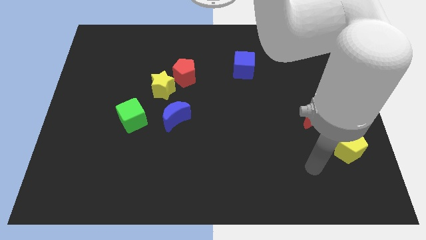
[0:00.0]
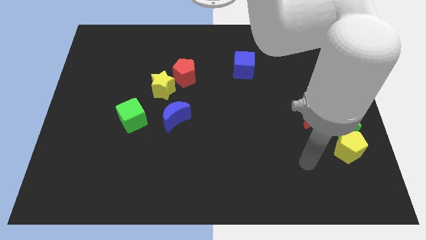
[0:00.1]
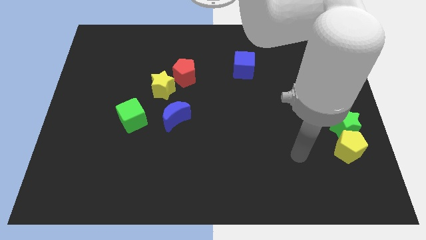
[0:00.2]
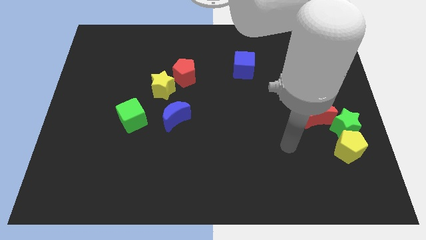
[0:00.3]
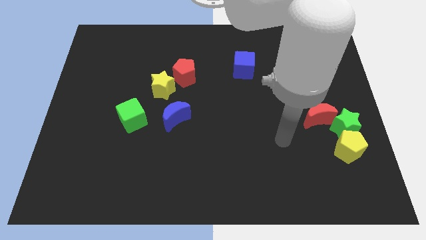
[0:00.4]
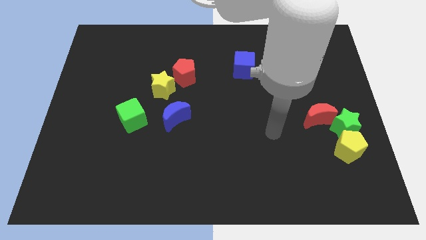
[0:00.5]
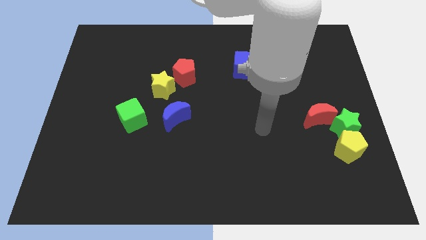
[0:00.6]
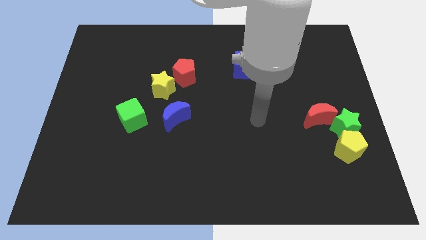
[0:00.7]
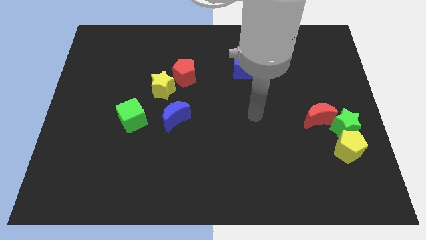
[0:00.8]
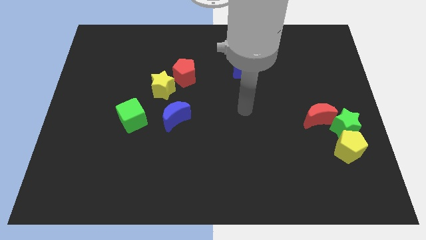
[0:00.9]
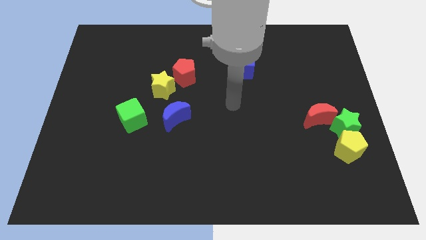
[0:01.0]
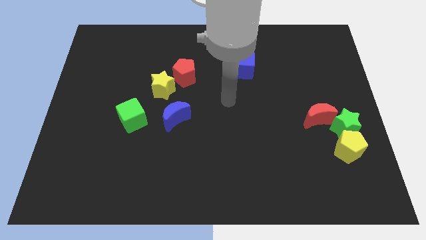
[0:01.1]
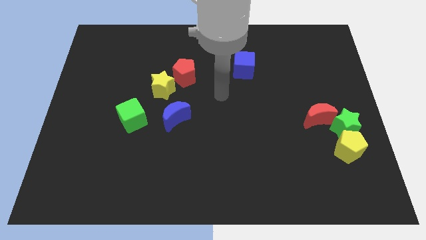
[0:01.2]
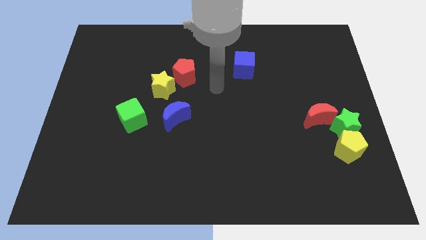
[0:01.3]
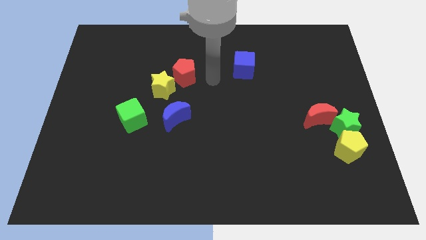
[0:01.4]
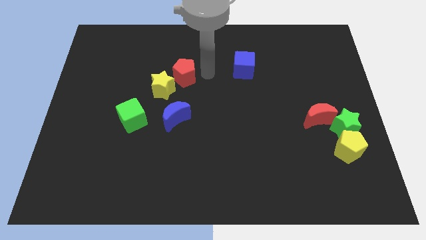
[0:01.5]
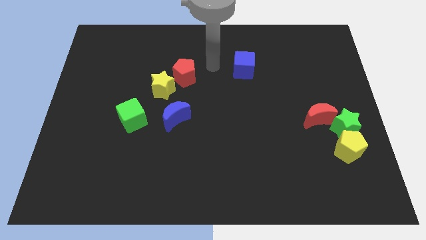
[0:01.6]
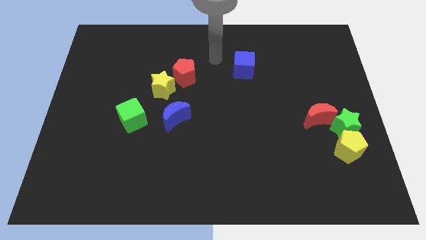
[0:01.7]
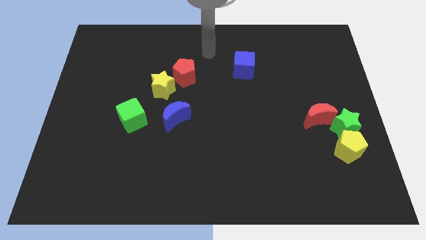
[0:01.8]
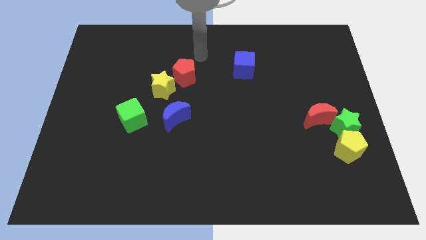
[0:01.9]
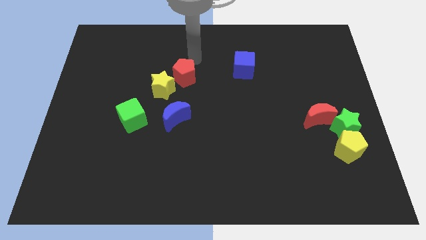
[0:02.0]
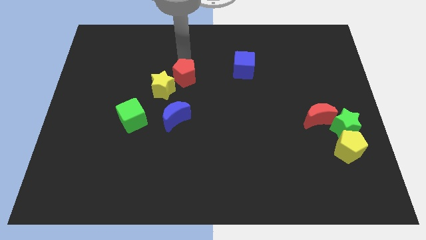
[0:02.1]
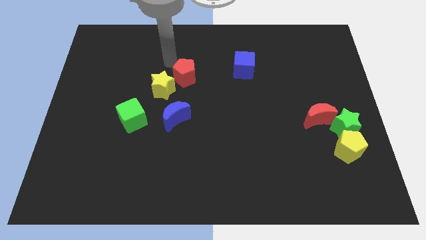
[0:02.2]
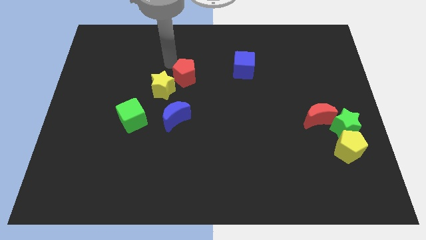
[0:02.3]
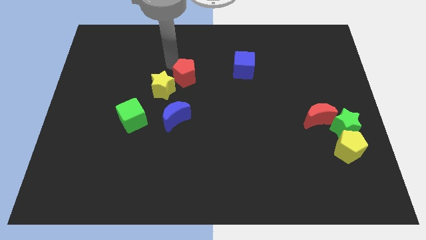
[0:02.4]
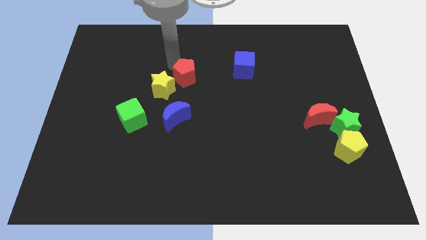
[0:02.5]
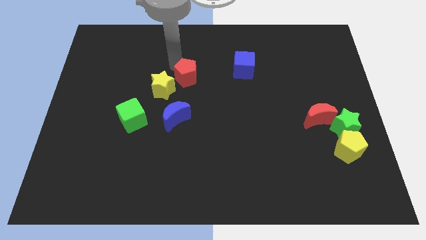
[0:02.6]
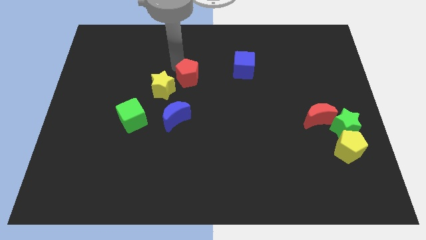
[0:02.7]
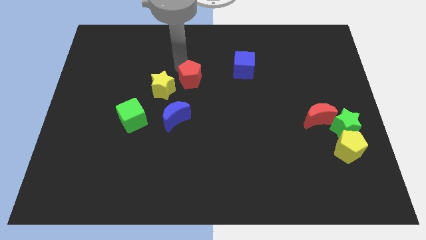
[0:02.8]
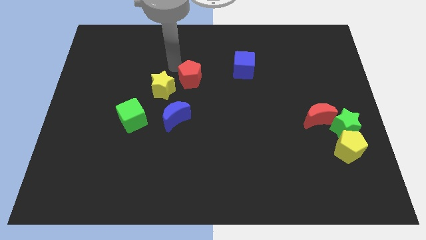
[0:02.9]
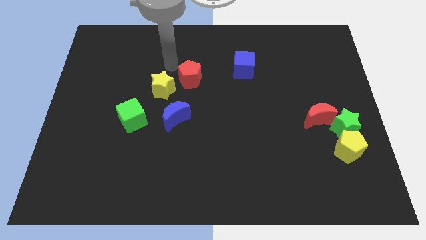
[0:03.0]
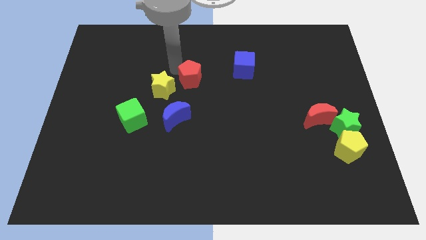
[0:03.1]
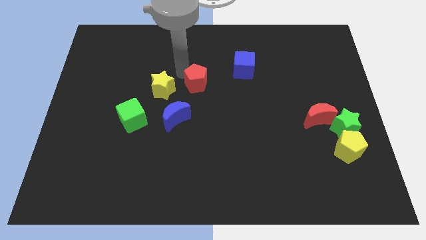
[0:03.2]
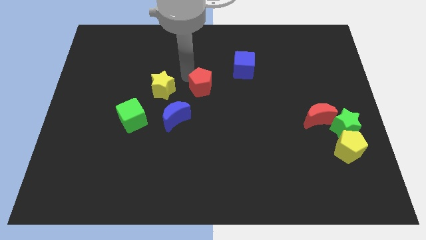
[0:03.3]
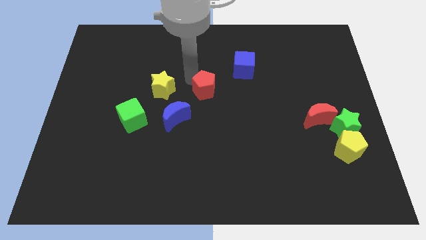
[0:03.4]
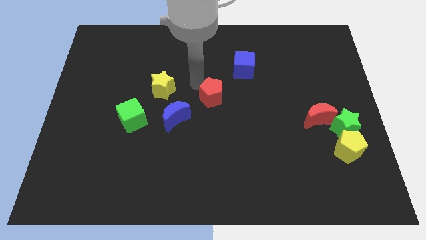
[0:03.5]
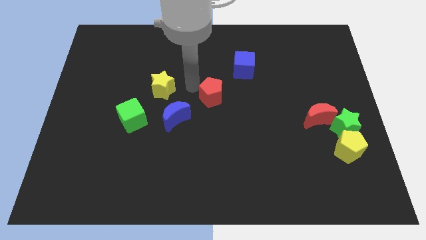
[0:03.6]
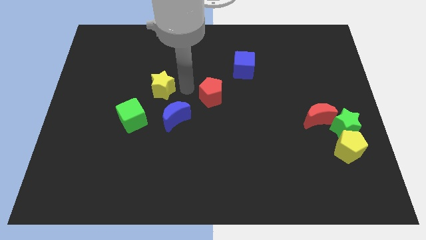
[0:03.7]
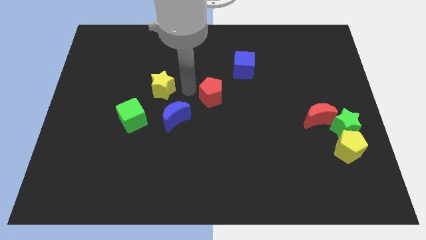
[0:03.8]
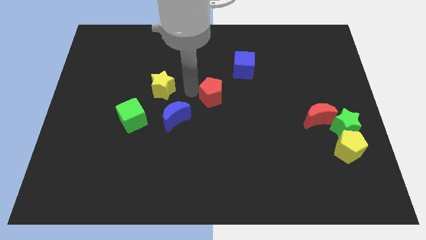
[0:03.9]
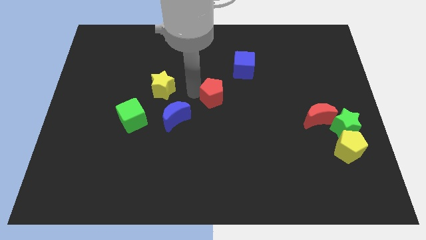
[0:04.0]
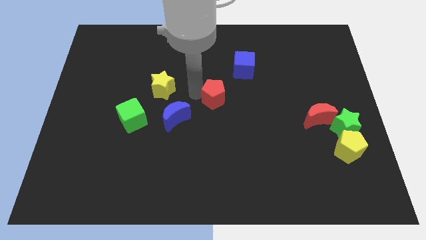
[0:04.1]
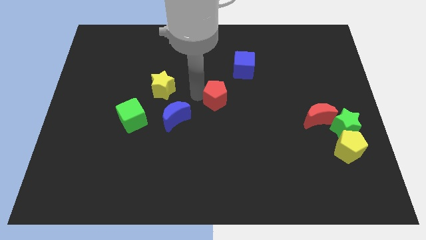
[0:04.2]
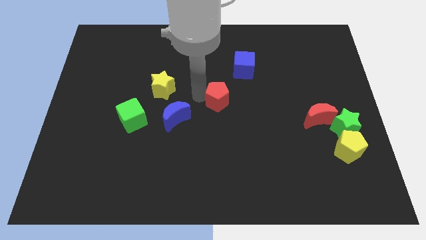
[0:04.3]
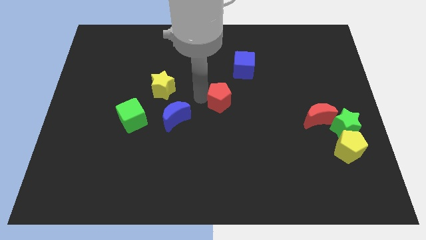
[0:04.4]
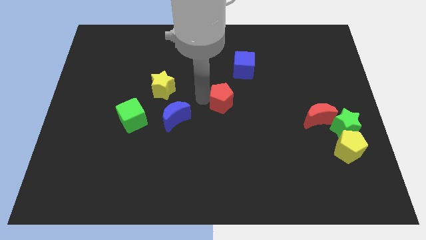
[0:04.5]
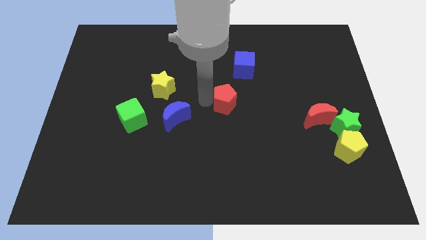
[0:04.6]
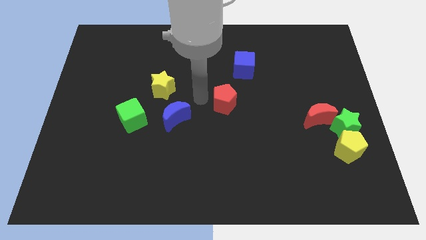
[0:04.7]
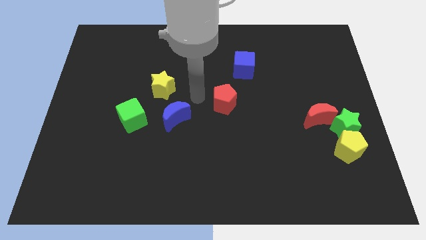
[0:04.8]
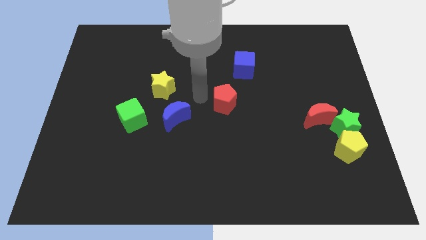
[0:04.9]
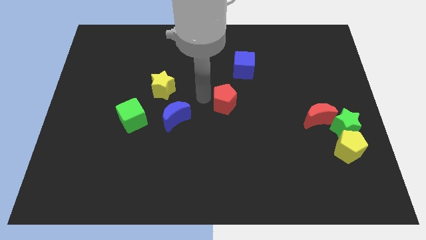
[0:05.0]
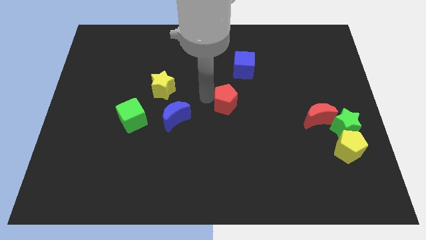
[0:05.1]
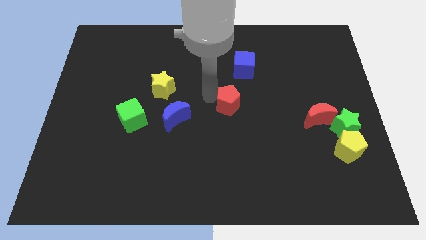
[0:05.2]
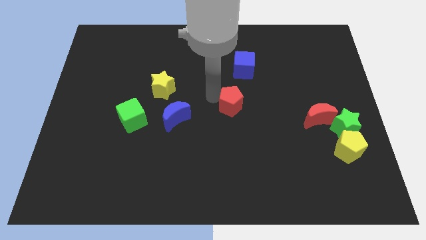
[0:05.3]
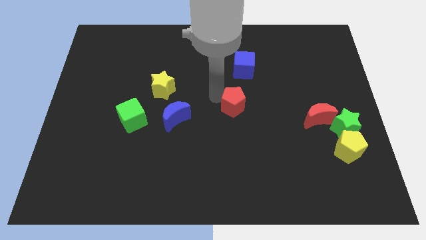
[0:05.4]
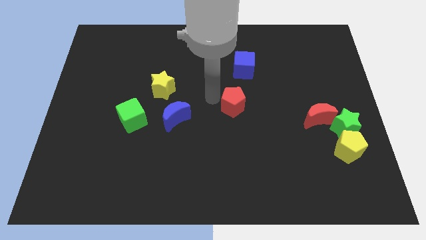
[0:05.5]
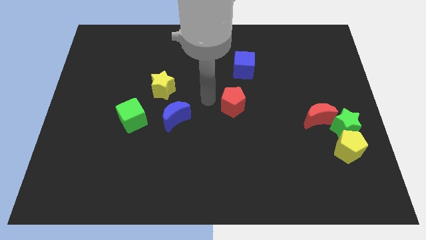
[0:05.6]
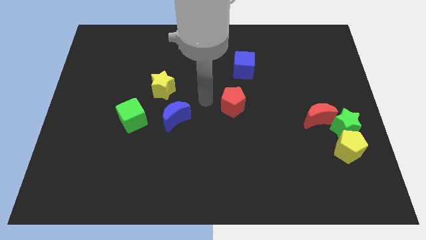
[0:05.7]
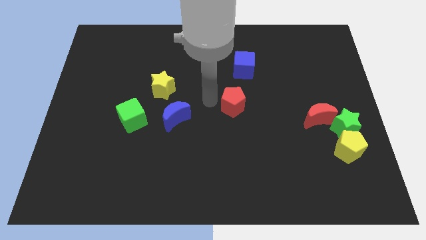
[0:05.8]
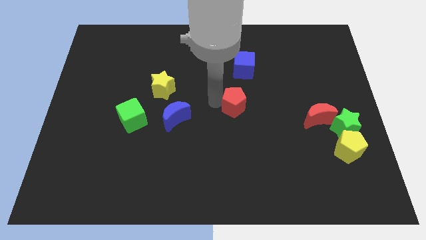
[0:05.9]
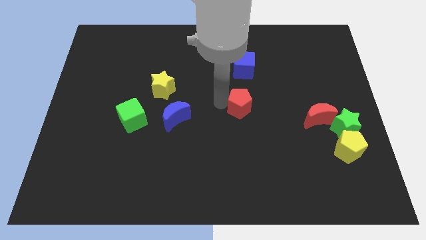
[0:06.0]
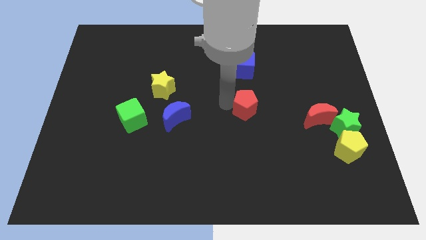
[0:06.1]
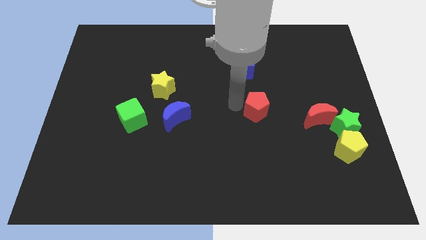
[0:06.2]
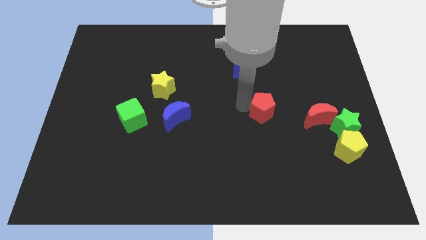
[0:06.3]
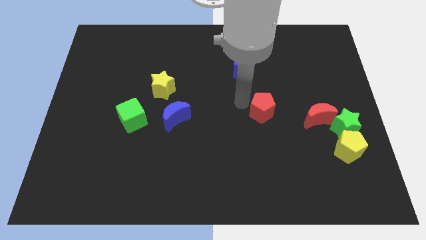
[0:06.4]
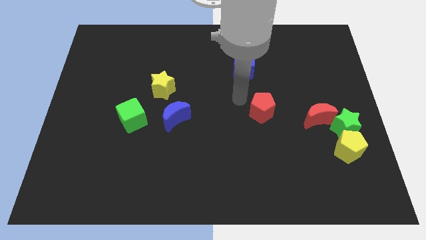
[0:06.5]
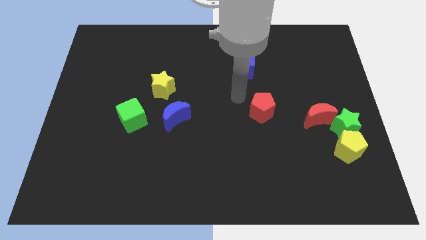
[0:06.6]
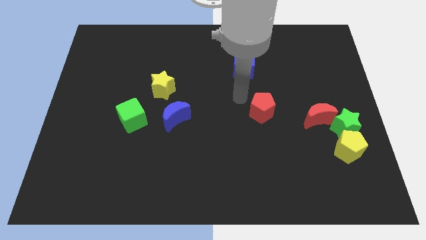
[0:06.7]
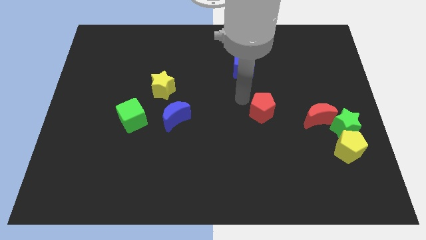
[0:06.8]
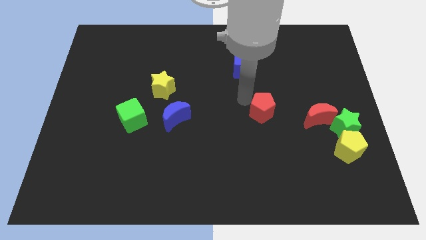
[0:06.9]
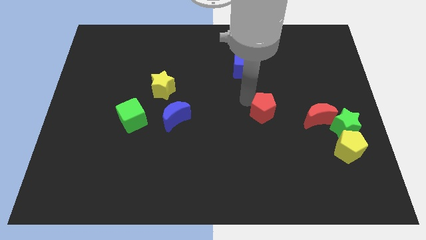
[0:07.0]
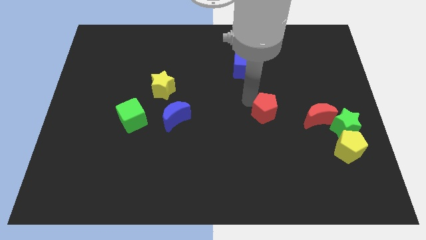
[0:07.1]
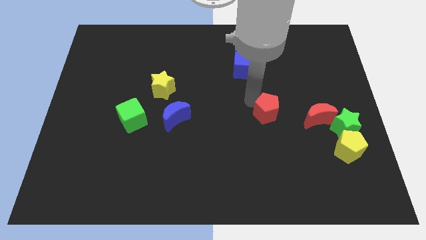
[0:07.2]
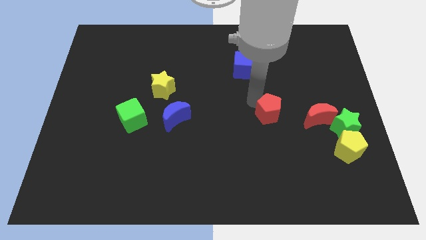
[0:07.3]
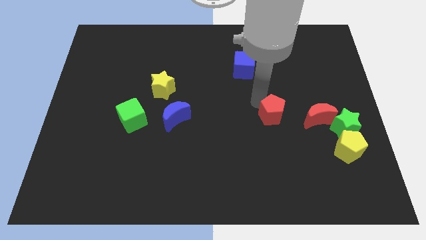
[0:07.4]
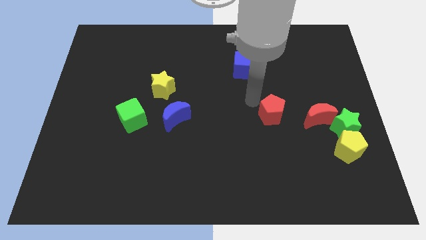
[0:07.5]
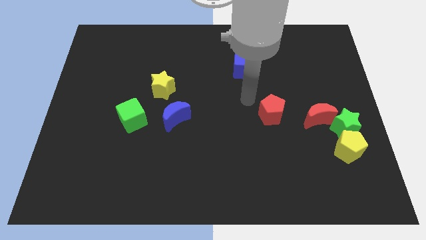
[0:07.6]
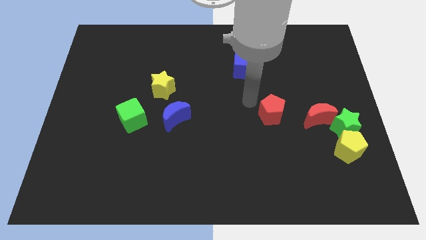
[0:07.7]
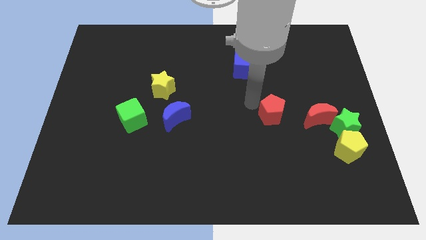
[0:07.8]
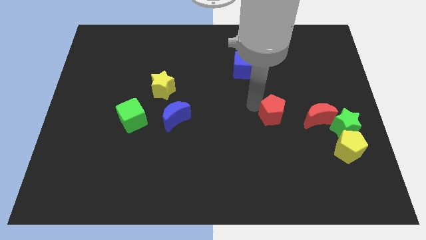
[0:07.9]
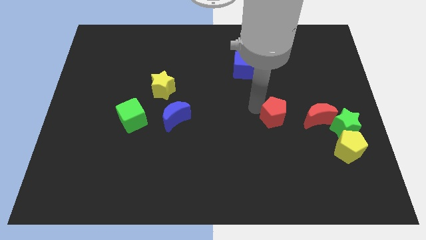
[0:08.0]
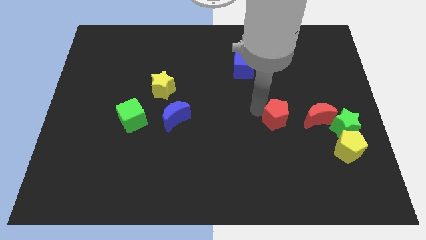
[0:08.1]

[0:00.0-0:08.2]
put the red pentagon to the left of the green star
